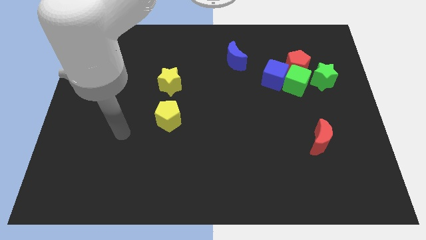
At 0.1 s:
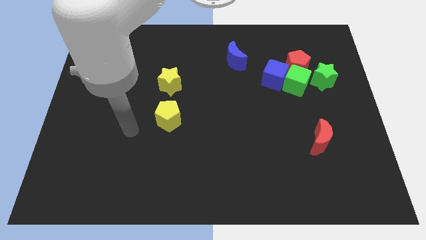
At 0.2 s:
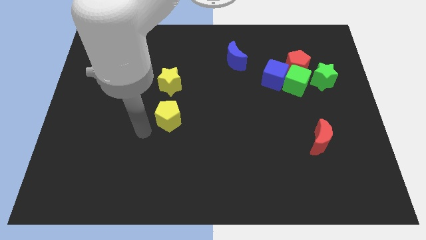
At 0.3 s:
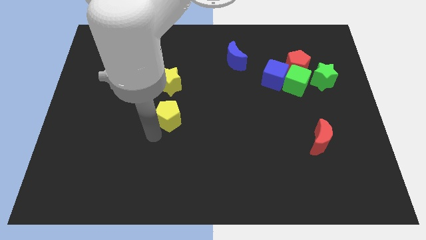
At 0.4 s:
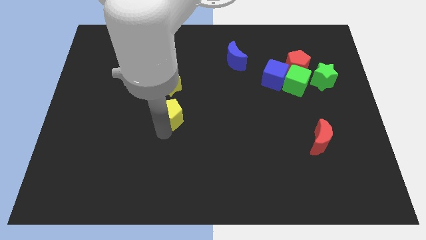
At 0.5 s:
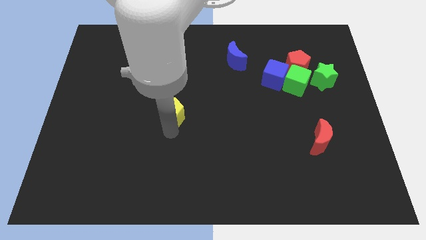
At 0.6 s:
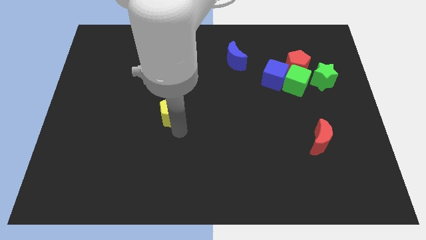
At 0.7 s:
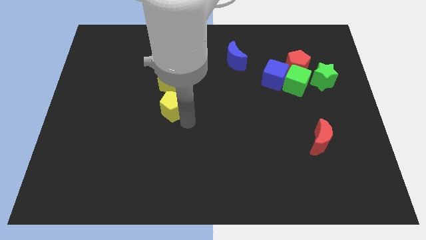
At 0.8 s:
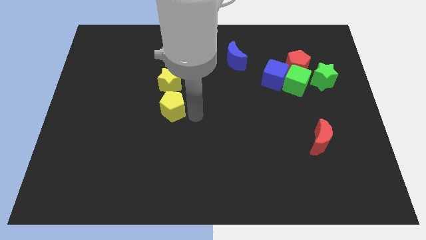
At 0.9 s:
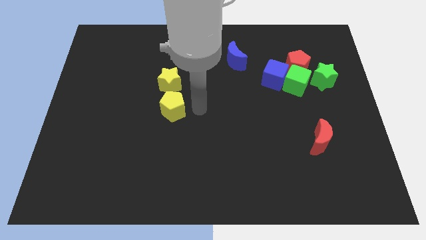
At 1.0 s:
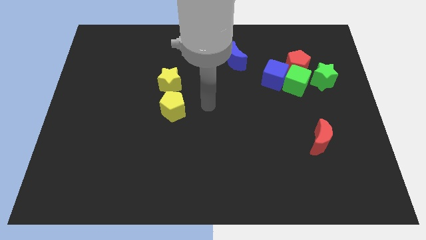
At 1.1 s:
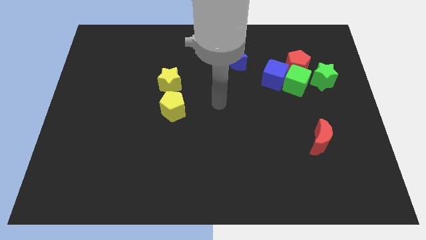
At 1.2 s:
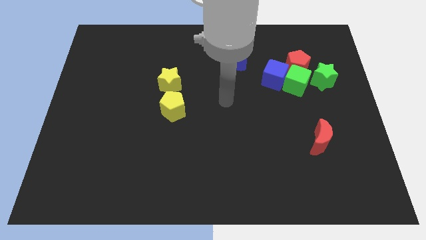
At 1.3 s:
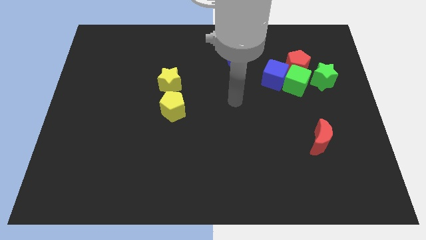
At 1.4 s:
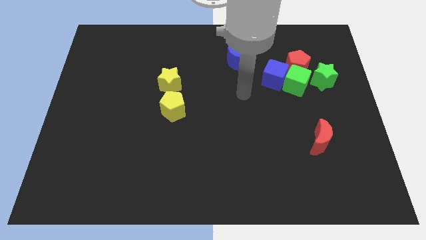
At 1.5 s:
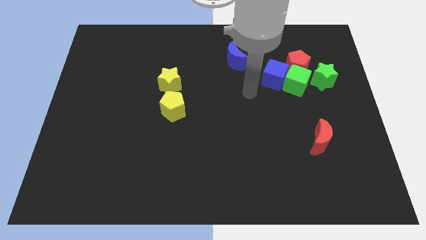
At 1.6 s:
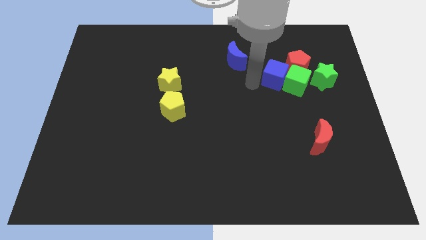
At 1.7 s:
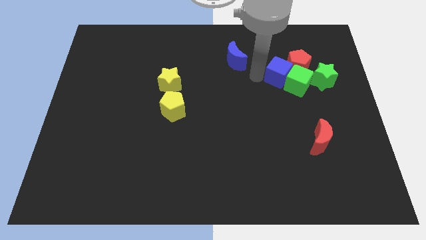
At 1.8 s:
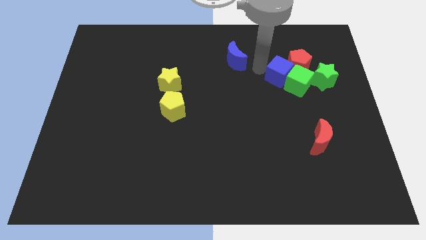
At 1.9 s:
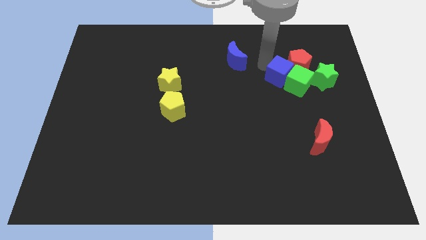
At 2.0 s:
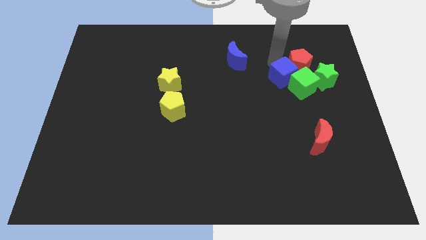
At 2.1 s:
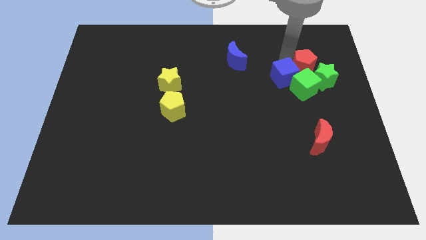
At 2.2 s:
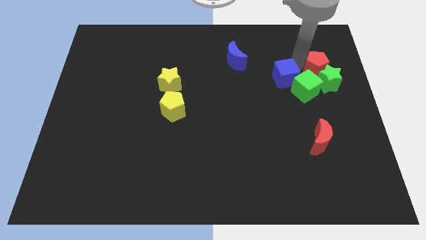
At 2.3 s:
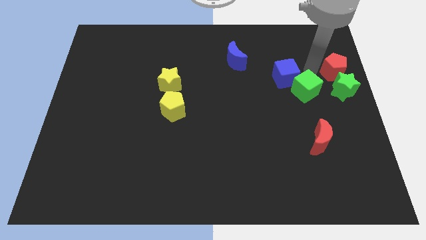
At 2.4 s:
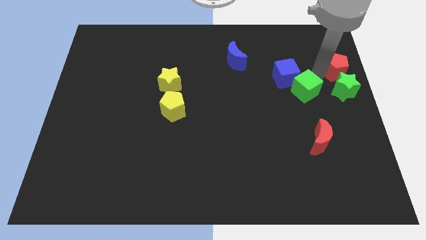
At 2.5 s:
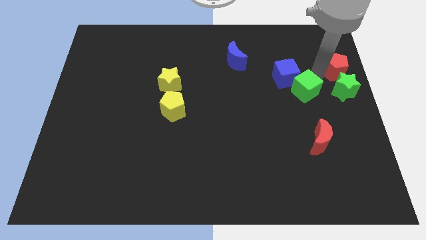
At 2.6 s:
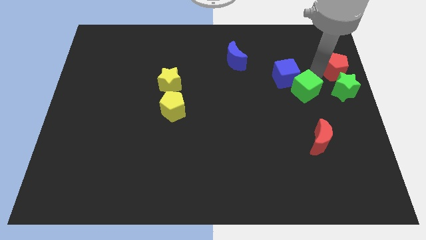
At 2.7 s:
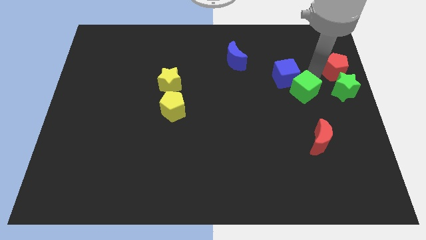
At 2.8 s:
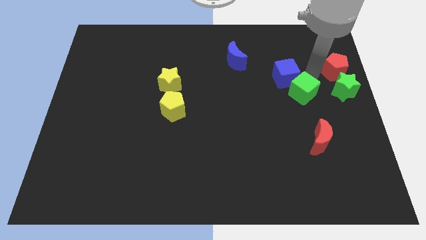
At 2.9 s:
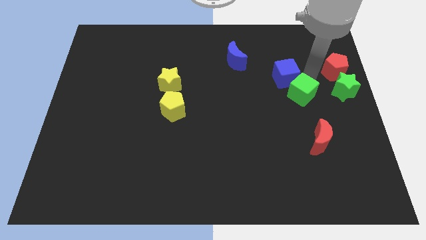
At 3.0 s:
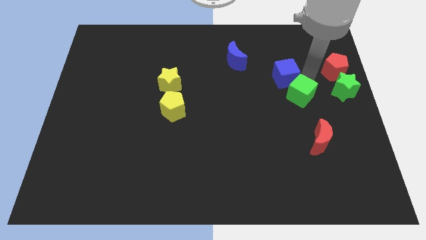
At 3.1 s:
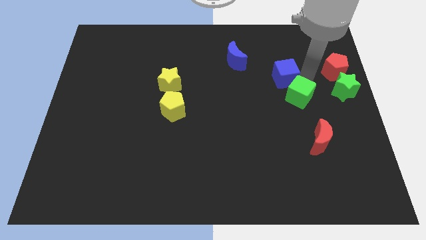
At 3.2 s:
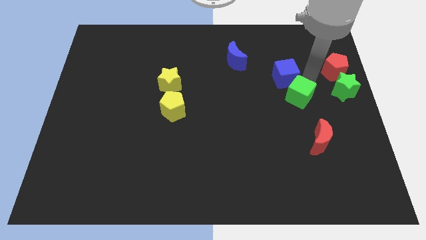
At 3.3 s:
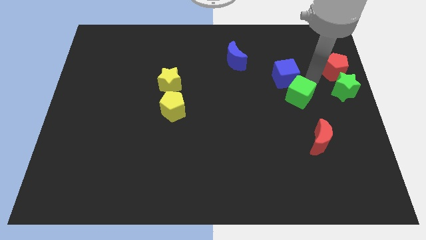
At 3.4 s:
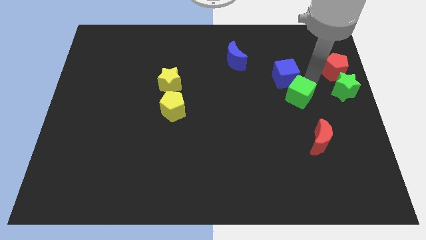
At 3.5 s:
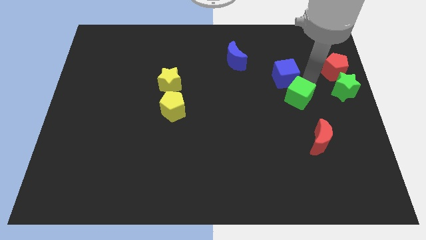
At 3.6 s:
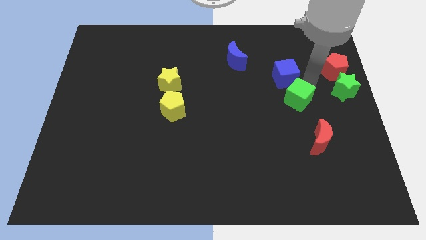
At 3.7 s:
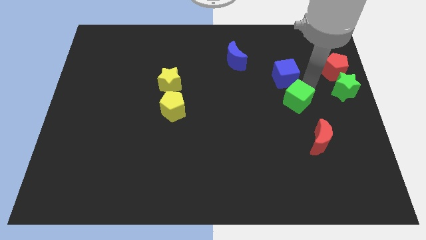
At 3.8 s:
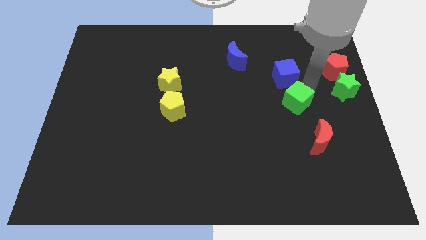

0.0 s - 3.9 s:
separate the green cube from the blue cube, red pentagon, and green star

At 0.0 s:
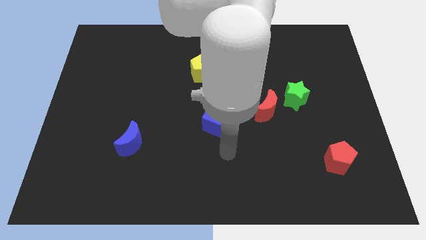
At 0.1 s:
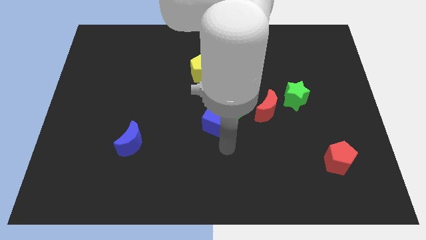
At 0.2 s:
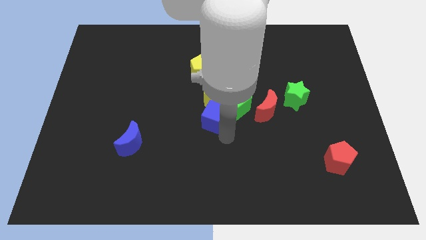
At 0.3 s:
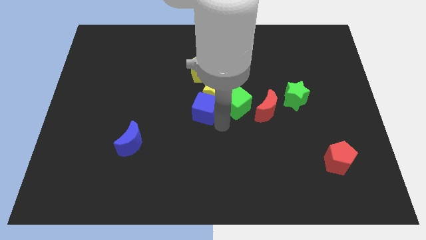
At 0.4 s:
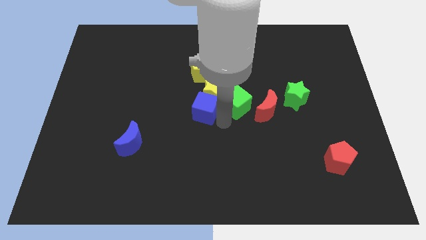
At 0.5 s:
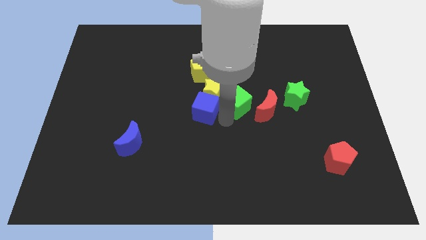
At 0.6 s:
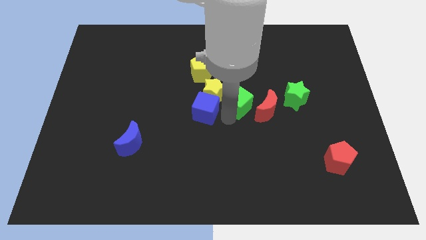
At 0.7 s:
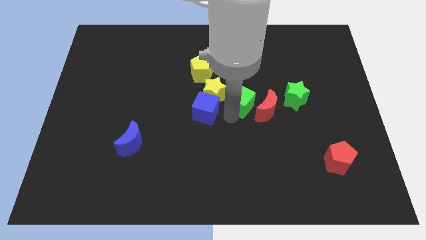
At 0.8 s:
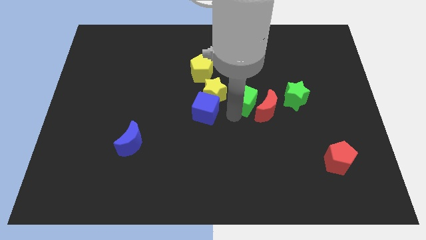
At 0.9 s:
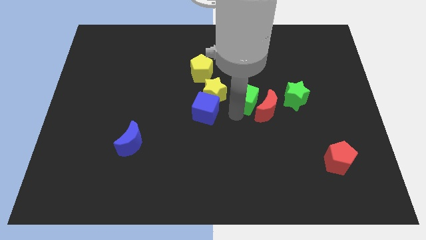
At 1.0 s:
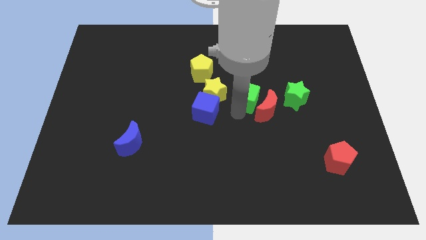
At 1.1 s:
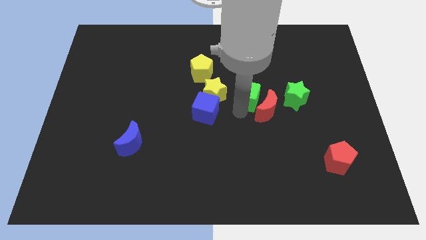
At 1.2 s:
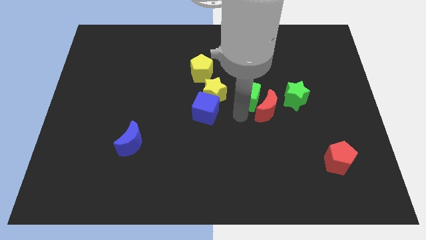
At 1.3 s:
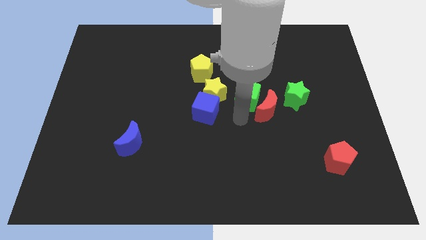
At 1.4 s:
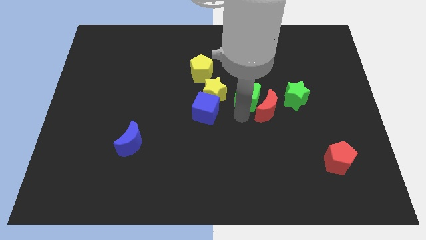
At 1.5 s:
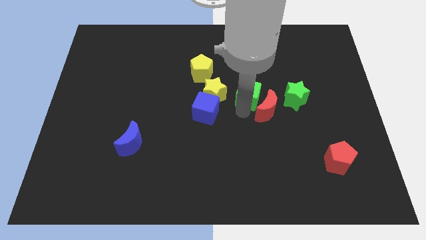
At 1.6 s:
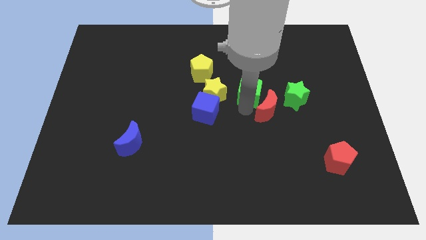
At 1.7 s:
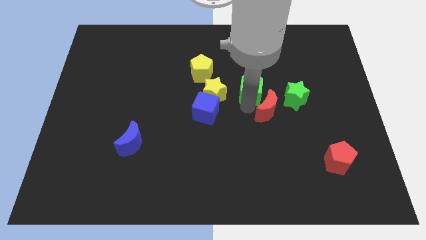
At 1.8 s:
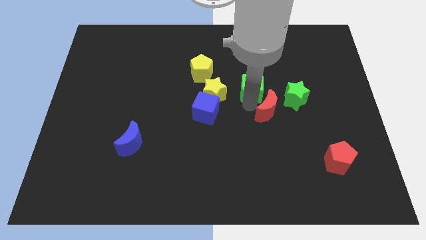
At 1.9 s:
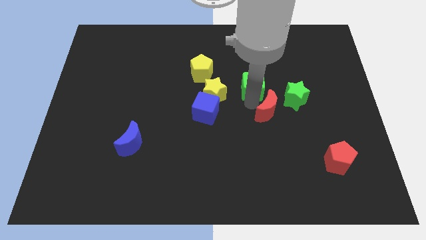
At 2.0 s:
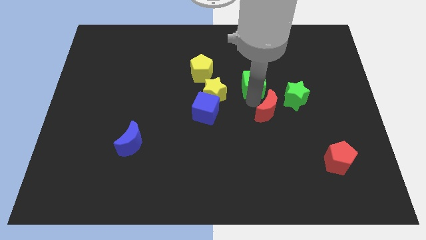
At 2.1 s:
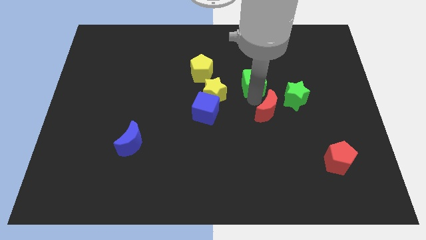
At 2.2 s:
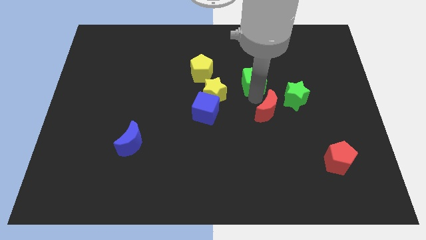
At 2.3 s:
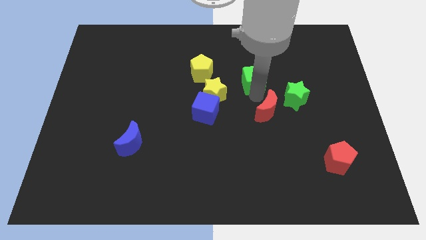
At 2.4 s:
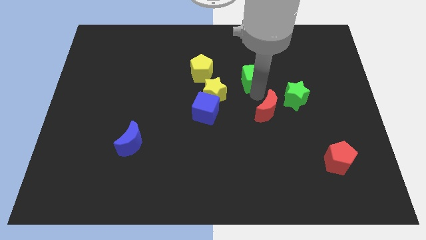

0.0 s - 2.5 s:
separate the green cube from the group

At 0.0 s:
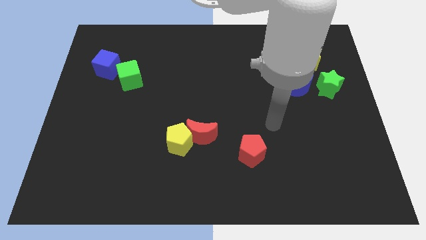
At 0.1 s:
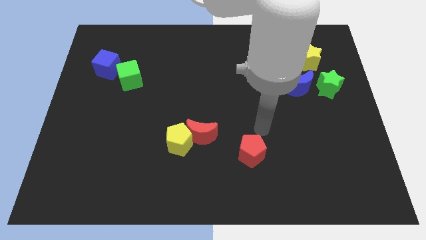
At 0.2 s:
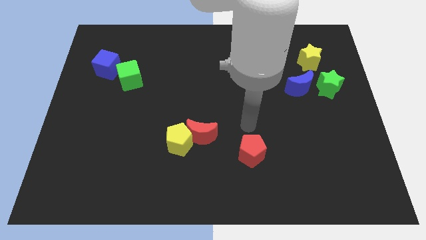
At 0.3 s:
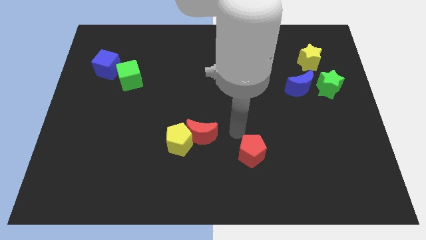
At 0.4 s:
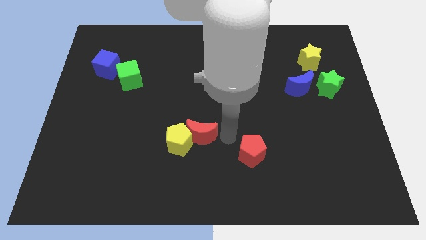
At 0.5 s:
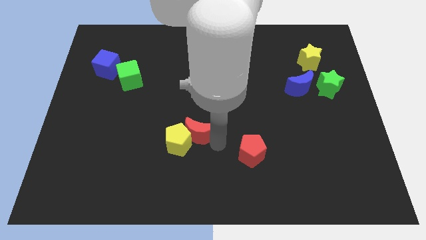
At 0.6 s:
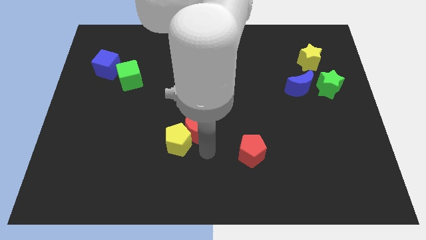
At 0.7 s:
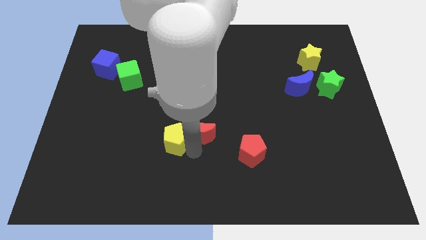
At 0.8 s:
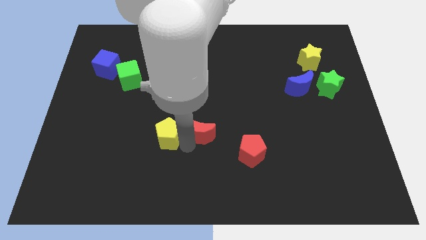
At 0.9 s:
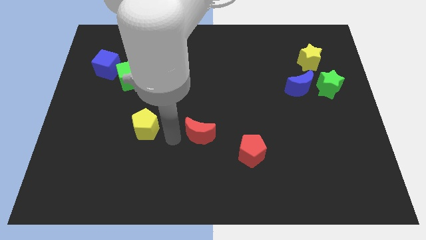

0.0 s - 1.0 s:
separate the red moon from the yellow pentagon

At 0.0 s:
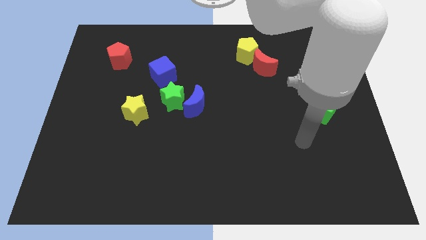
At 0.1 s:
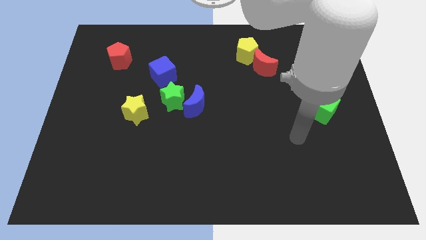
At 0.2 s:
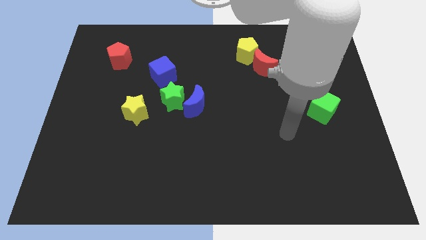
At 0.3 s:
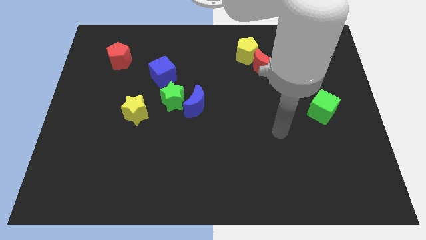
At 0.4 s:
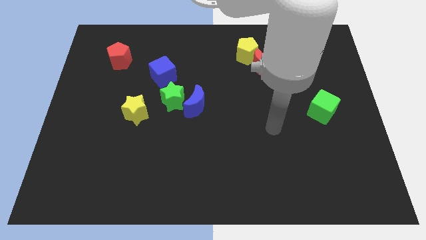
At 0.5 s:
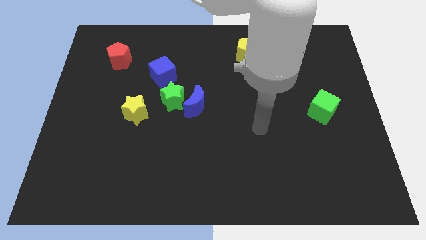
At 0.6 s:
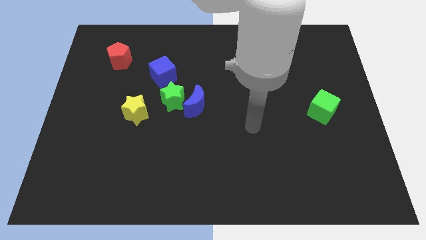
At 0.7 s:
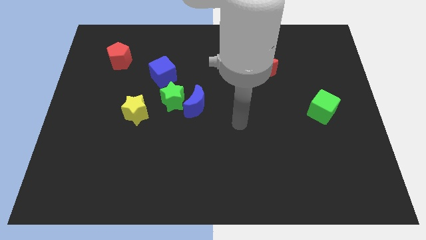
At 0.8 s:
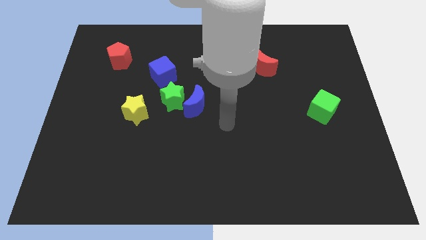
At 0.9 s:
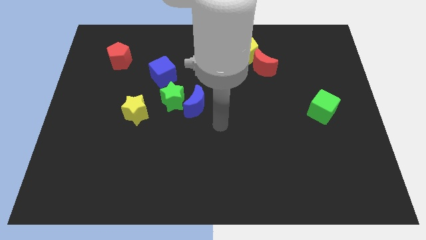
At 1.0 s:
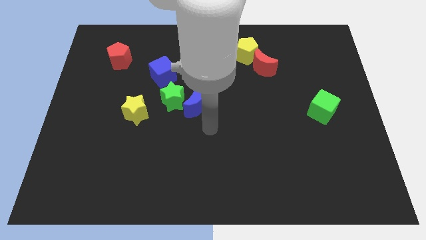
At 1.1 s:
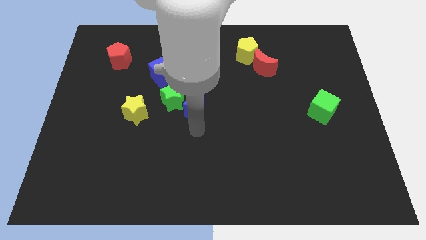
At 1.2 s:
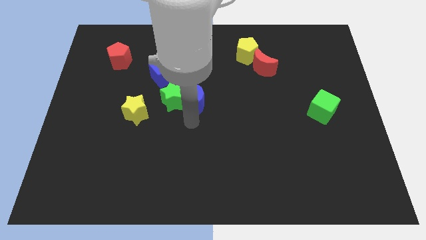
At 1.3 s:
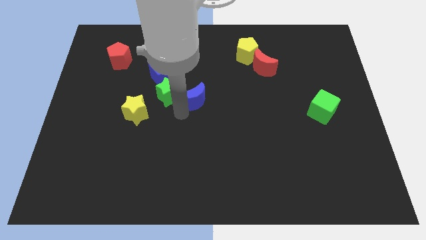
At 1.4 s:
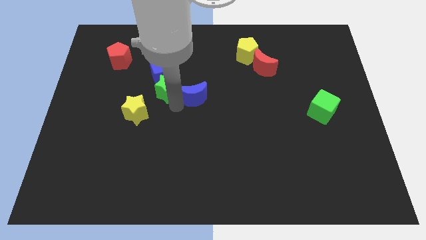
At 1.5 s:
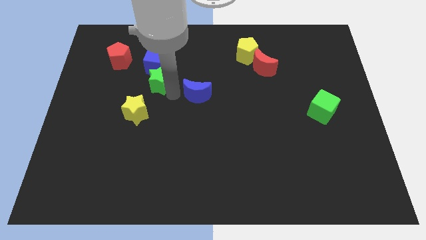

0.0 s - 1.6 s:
separate the blue moon from the green star

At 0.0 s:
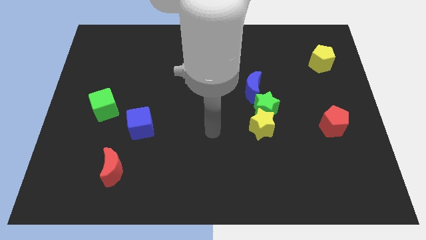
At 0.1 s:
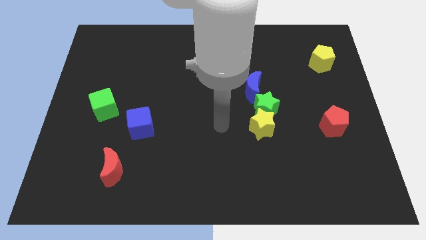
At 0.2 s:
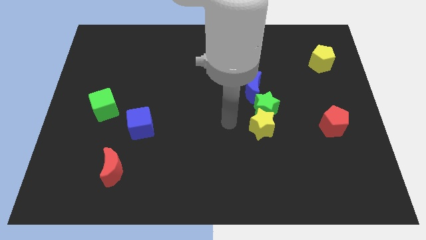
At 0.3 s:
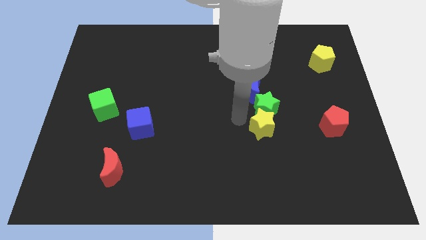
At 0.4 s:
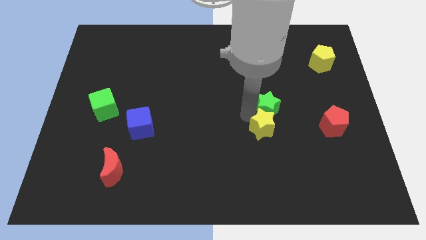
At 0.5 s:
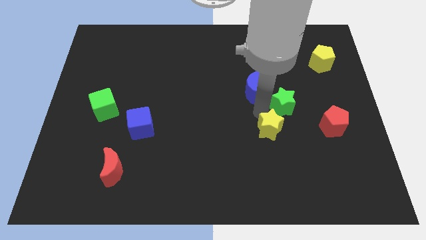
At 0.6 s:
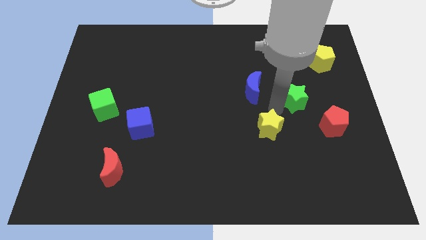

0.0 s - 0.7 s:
pull the yellow star apart from the green star
